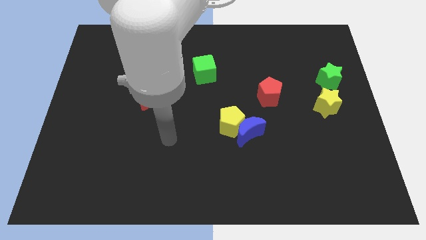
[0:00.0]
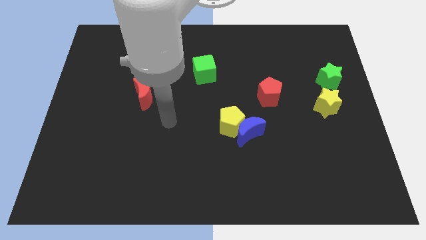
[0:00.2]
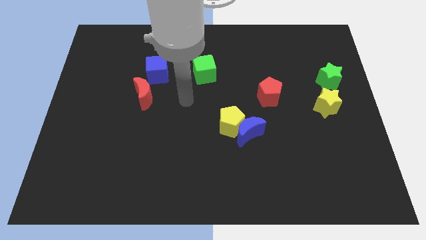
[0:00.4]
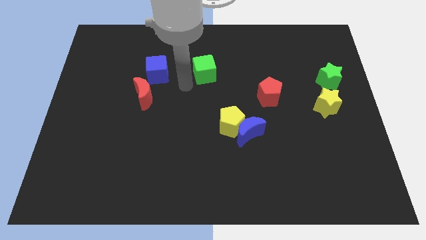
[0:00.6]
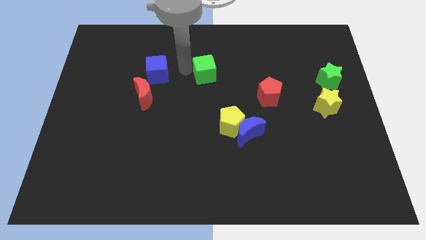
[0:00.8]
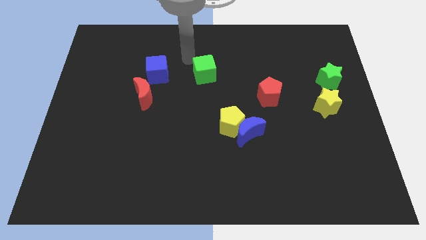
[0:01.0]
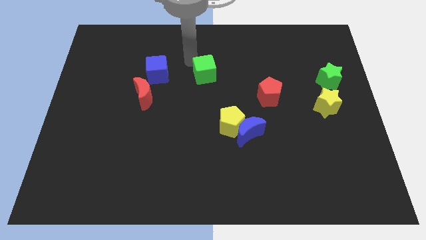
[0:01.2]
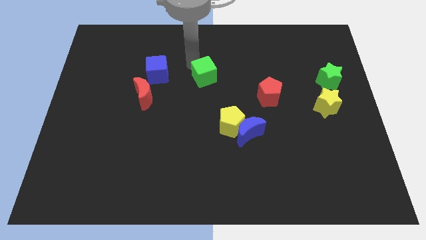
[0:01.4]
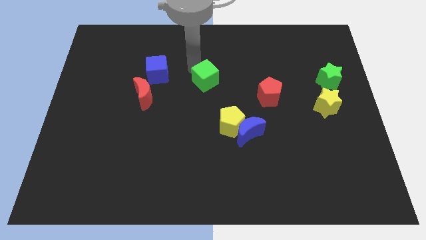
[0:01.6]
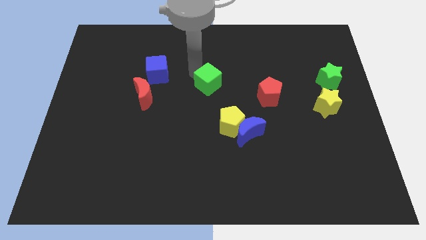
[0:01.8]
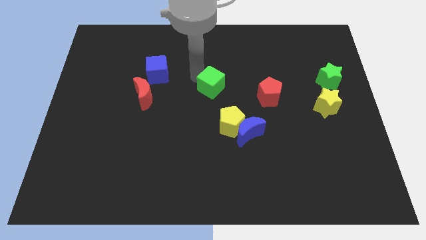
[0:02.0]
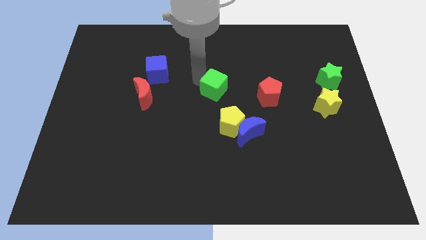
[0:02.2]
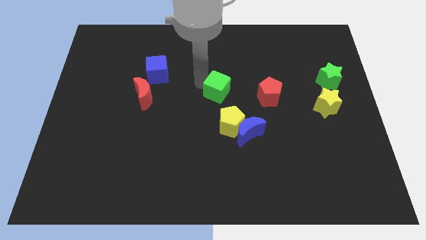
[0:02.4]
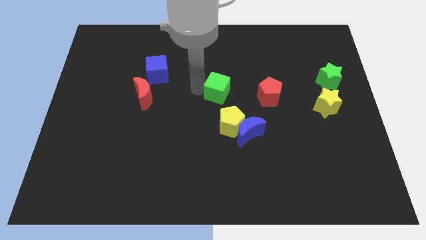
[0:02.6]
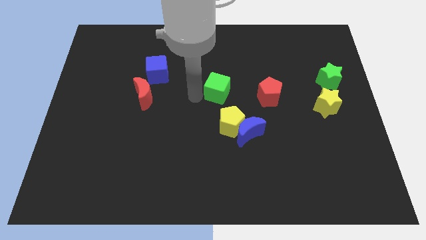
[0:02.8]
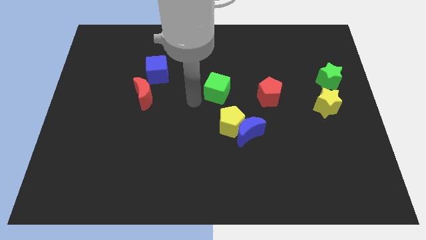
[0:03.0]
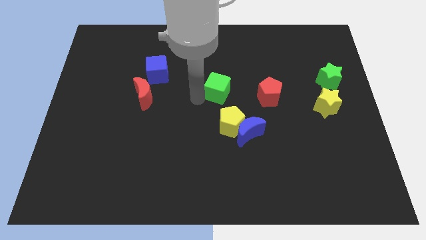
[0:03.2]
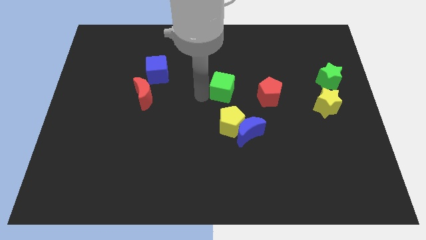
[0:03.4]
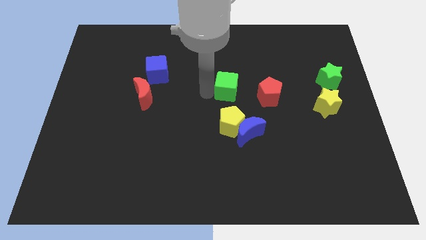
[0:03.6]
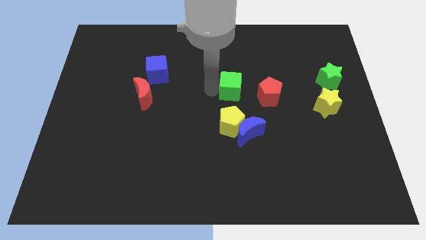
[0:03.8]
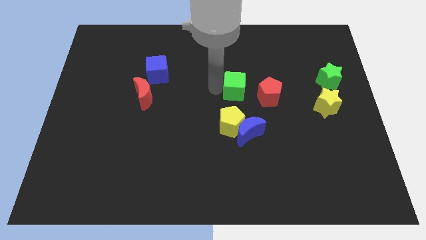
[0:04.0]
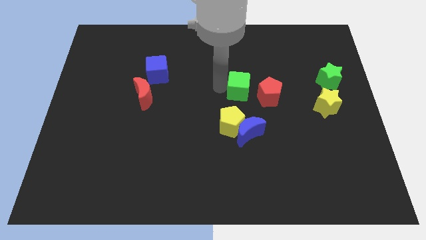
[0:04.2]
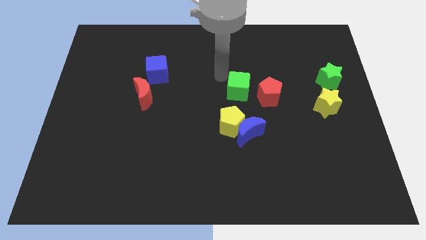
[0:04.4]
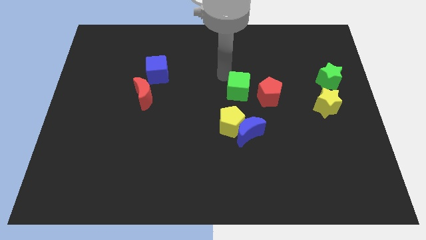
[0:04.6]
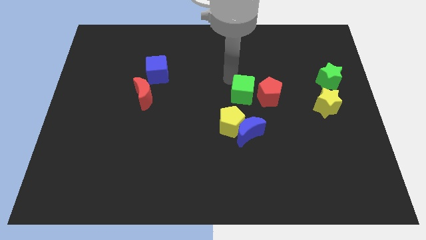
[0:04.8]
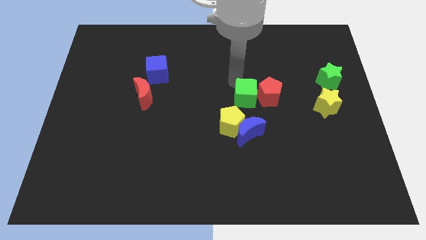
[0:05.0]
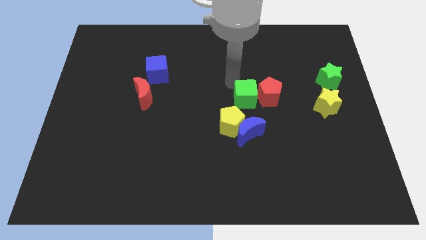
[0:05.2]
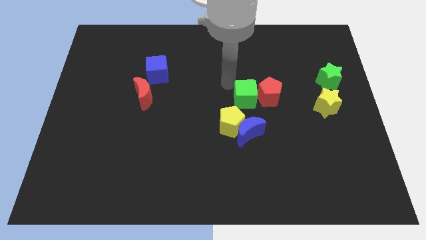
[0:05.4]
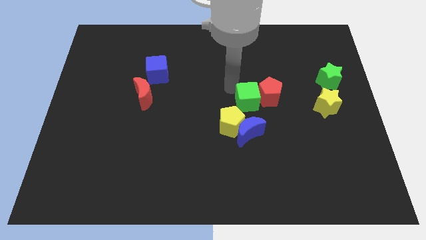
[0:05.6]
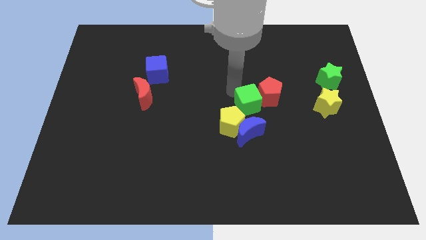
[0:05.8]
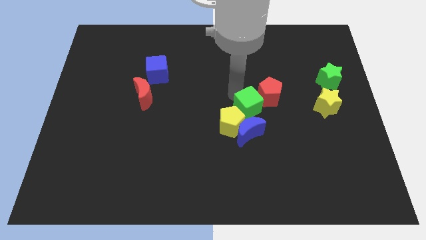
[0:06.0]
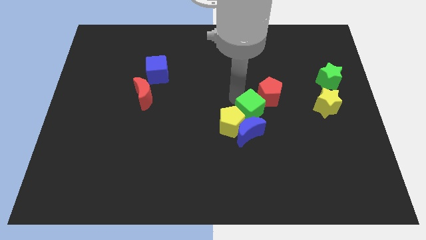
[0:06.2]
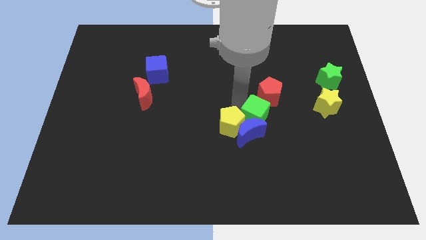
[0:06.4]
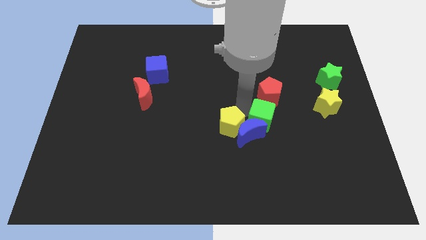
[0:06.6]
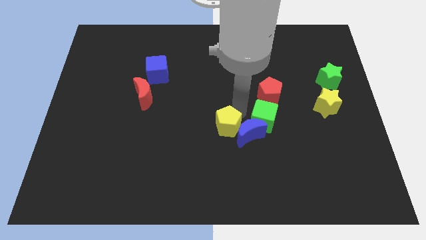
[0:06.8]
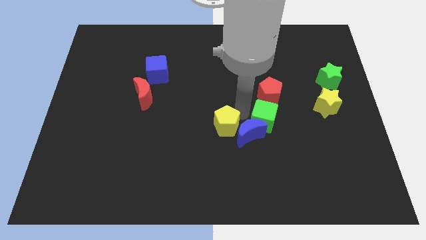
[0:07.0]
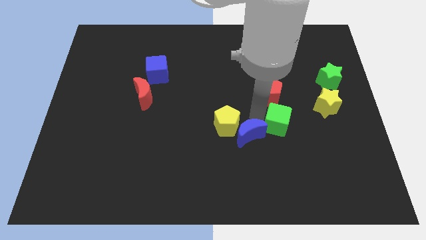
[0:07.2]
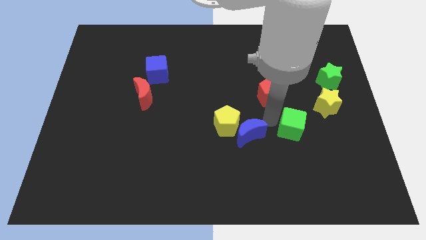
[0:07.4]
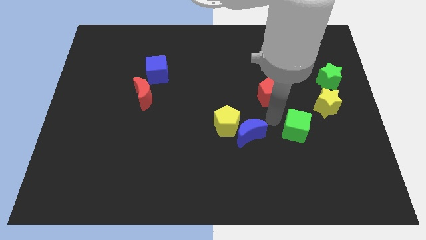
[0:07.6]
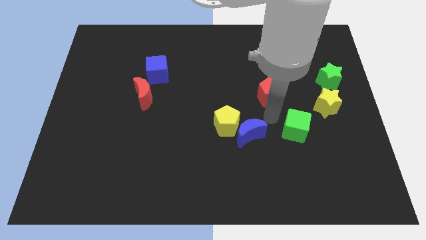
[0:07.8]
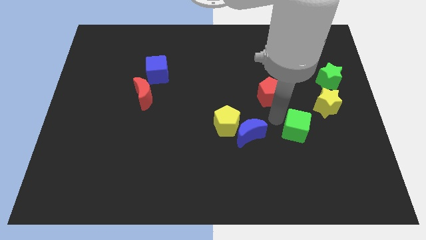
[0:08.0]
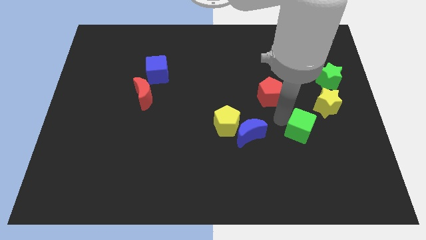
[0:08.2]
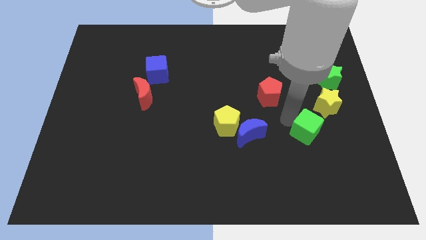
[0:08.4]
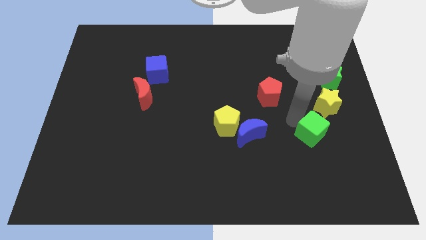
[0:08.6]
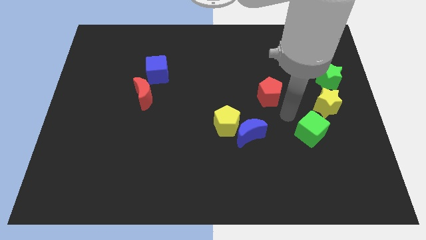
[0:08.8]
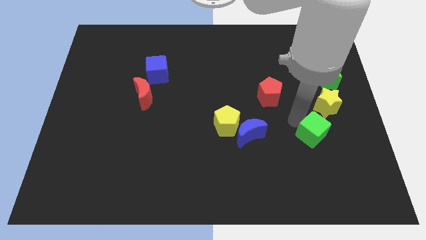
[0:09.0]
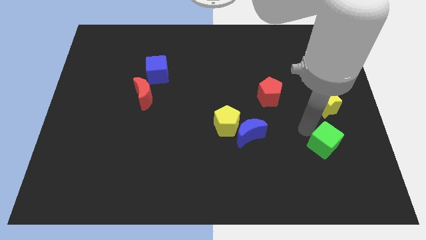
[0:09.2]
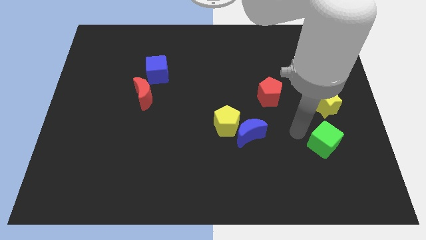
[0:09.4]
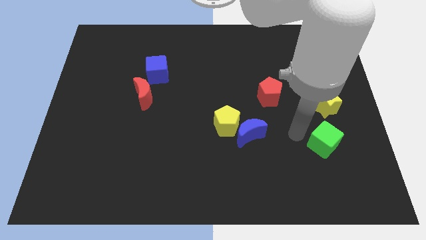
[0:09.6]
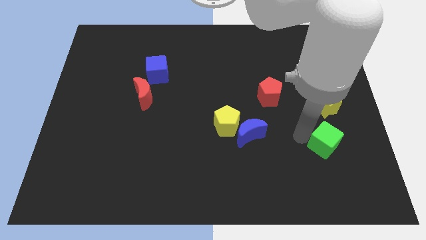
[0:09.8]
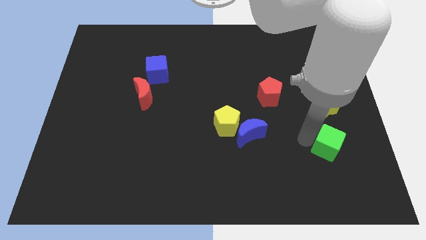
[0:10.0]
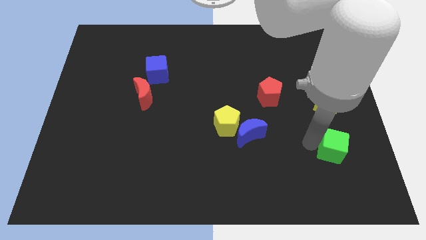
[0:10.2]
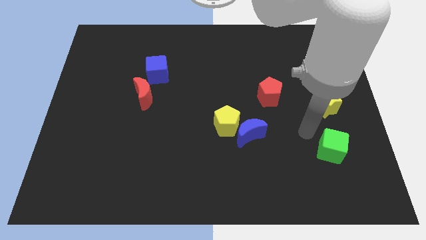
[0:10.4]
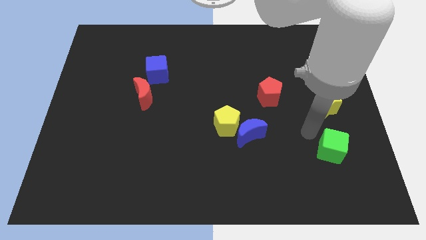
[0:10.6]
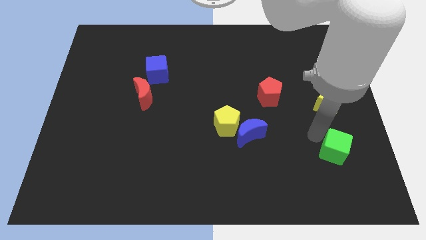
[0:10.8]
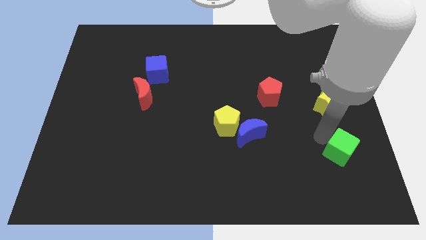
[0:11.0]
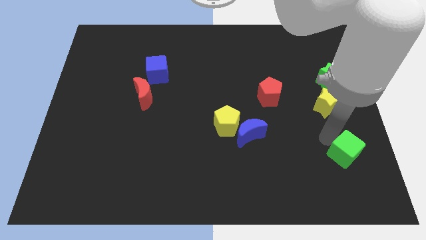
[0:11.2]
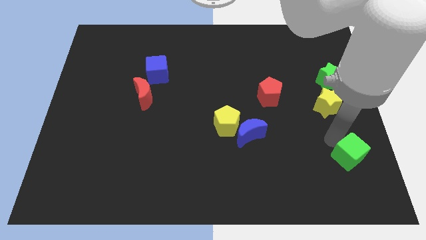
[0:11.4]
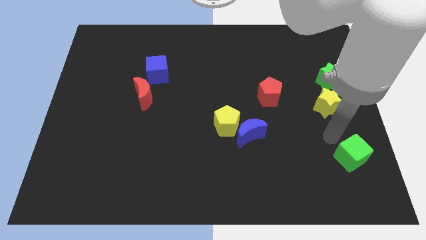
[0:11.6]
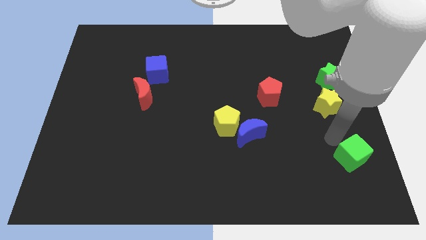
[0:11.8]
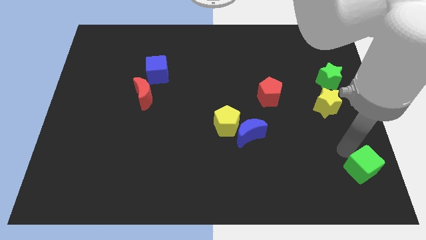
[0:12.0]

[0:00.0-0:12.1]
put the green cube to the bottom right of the board
